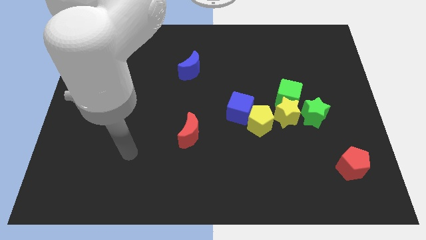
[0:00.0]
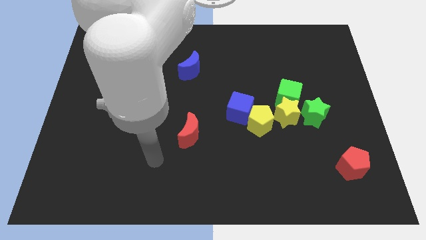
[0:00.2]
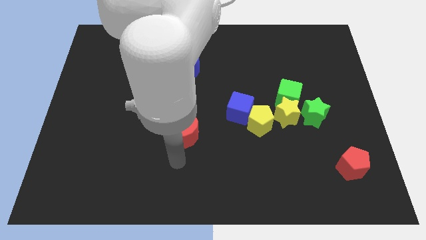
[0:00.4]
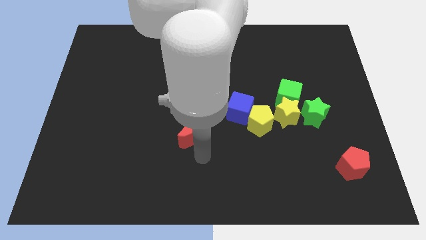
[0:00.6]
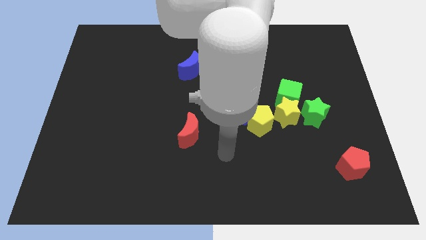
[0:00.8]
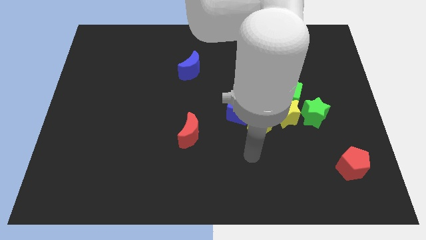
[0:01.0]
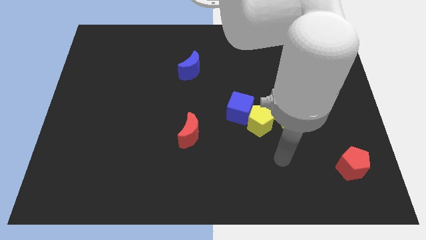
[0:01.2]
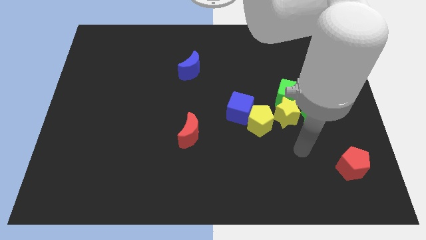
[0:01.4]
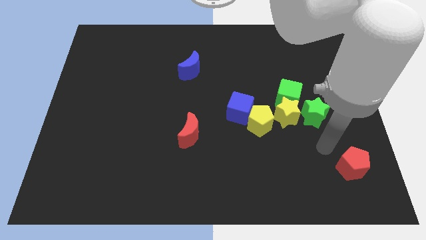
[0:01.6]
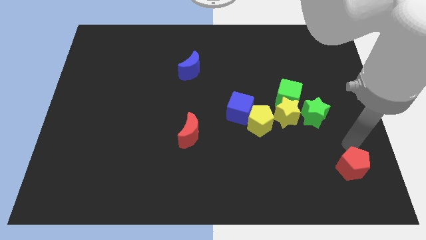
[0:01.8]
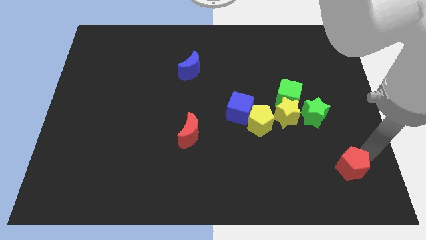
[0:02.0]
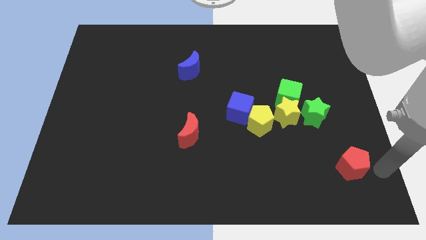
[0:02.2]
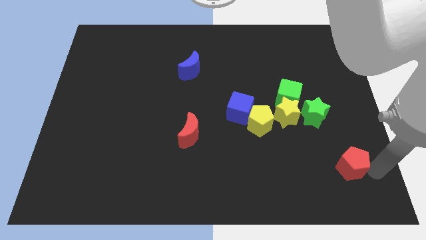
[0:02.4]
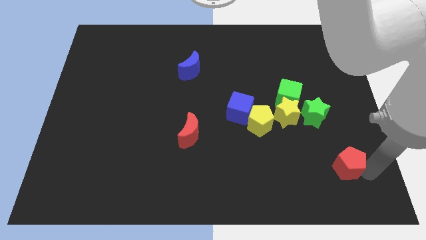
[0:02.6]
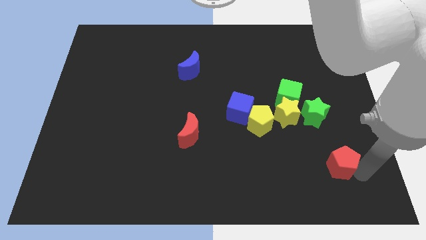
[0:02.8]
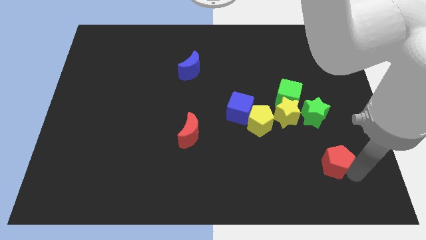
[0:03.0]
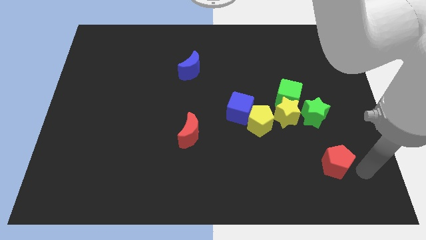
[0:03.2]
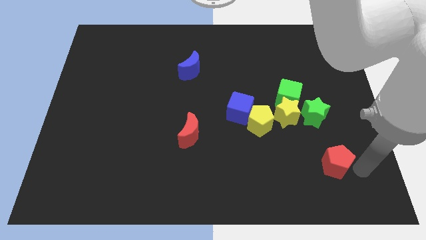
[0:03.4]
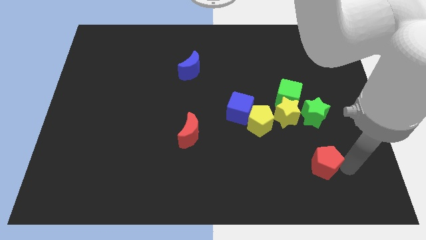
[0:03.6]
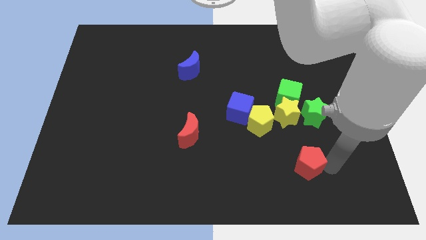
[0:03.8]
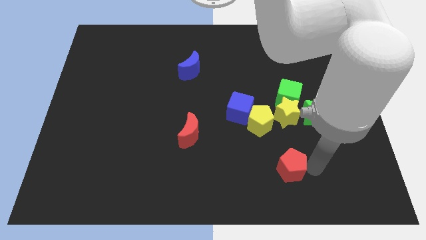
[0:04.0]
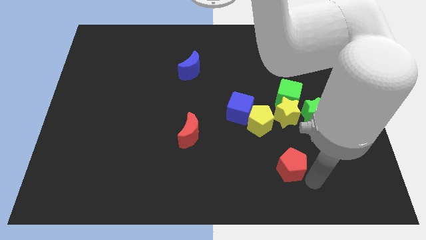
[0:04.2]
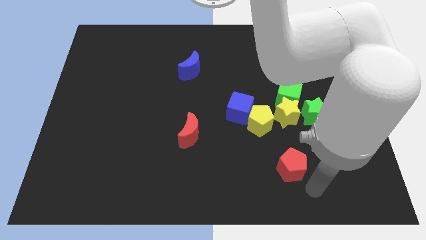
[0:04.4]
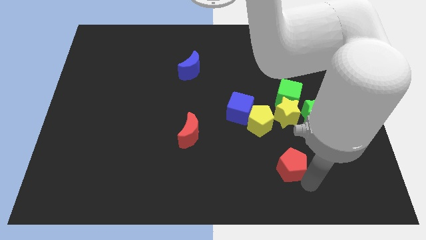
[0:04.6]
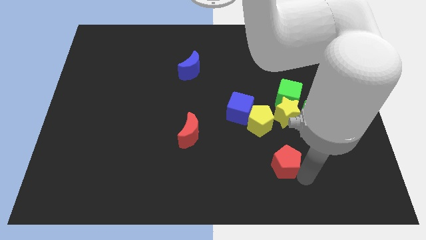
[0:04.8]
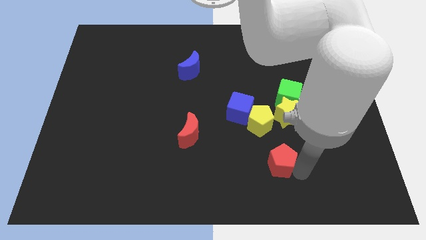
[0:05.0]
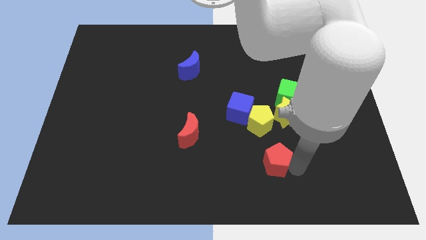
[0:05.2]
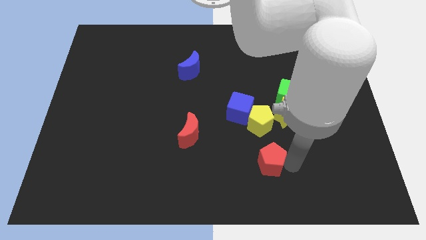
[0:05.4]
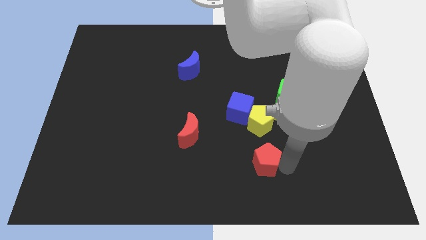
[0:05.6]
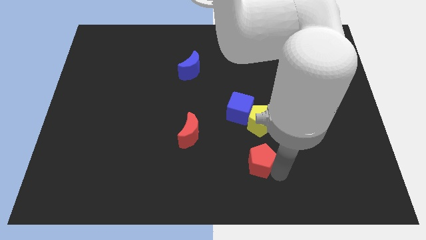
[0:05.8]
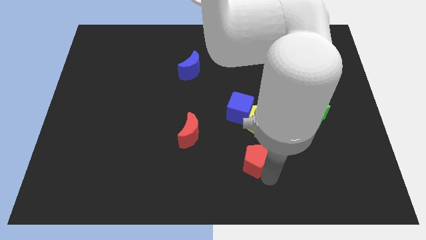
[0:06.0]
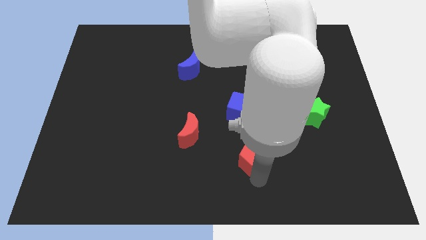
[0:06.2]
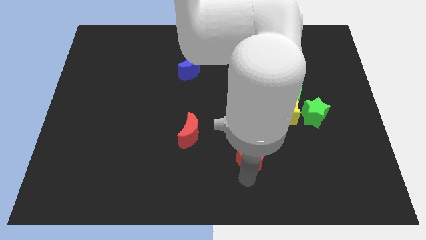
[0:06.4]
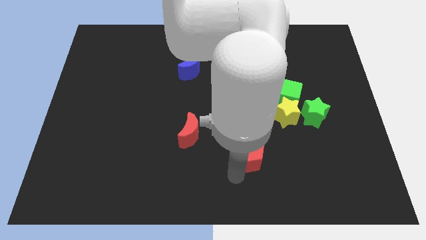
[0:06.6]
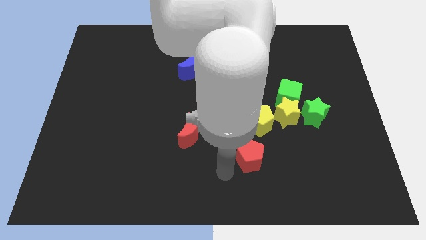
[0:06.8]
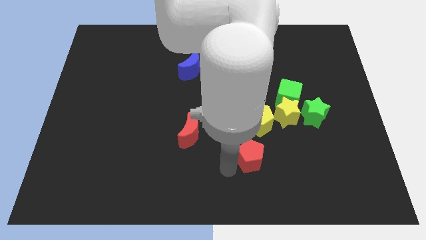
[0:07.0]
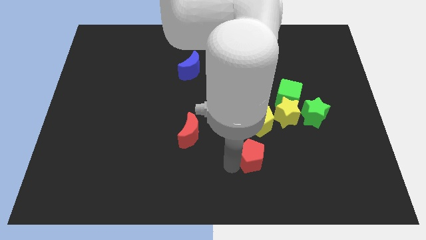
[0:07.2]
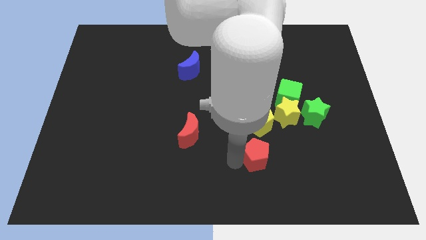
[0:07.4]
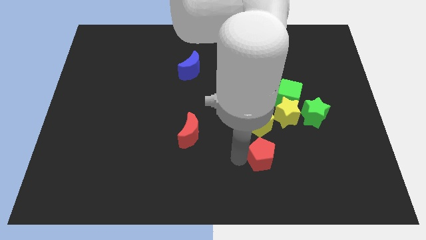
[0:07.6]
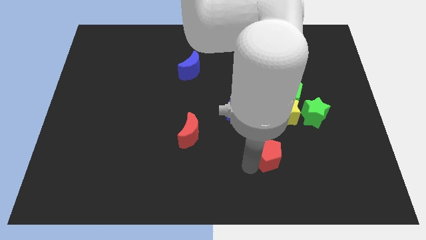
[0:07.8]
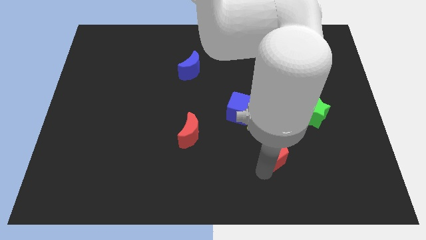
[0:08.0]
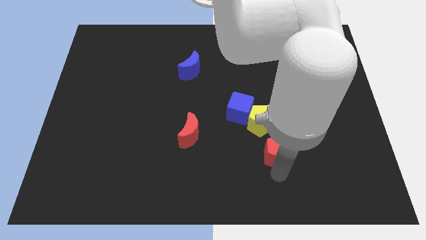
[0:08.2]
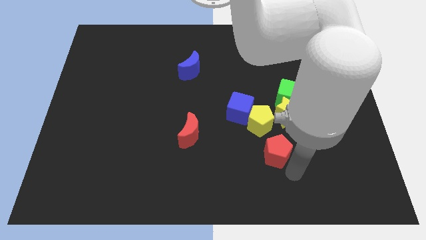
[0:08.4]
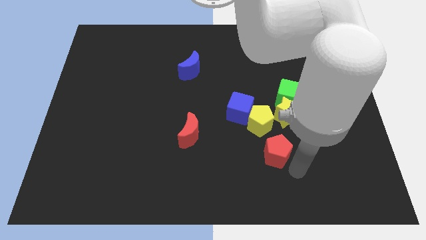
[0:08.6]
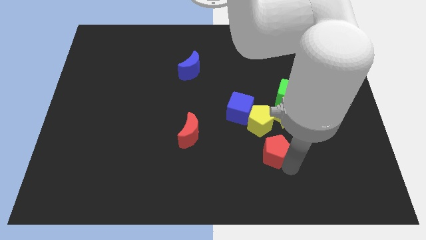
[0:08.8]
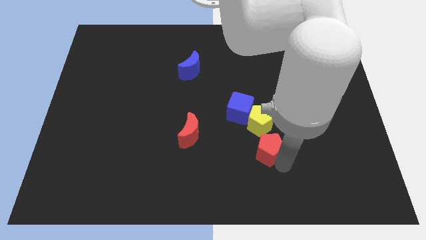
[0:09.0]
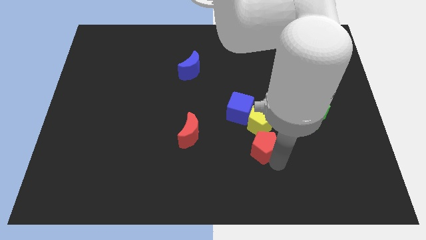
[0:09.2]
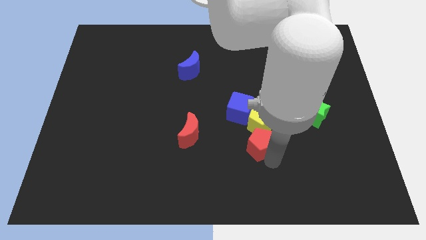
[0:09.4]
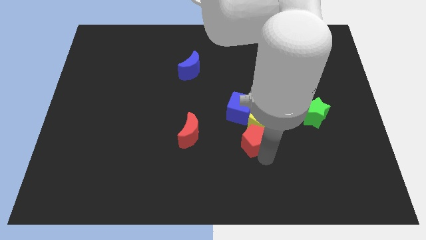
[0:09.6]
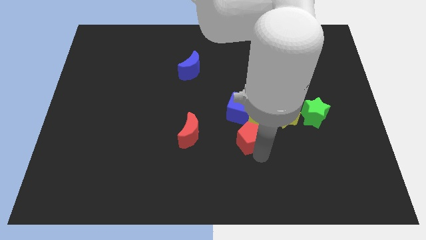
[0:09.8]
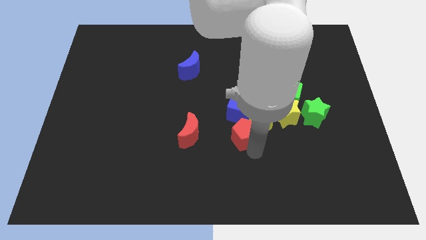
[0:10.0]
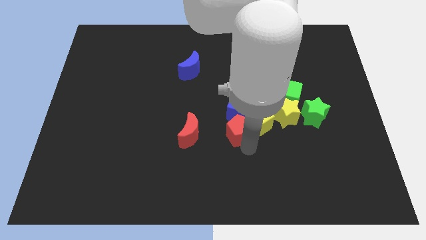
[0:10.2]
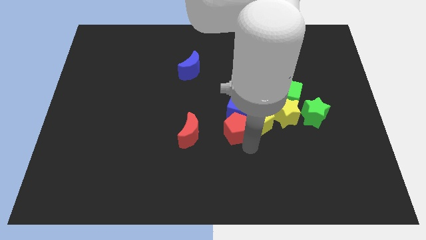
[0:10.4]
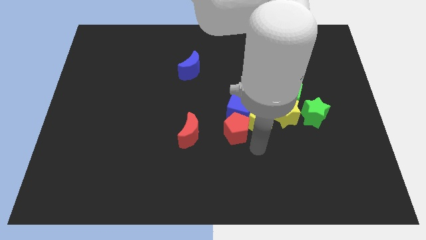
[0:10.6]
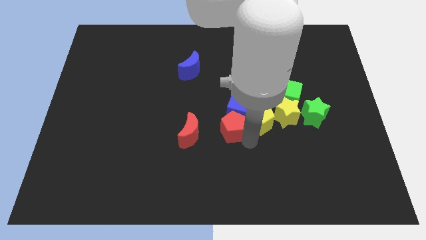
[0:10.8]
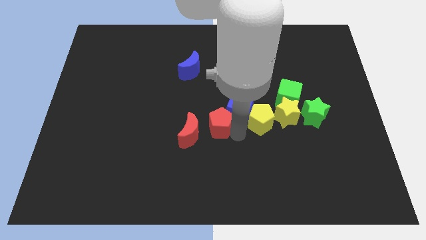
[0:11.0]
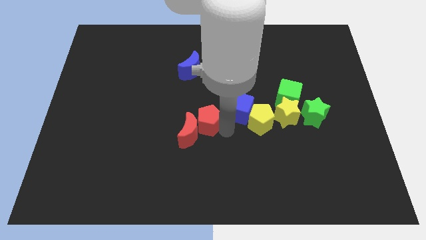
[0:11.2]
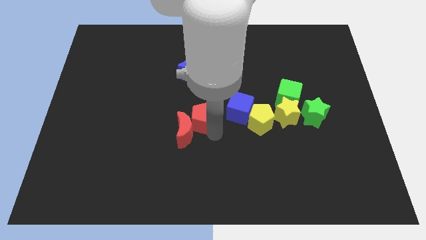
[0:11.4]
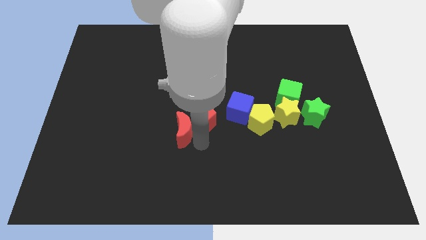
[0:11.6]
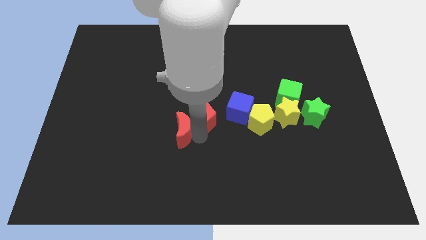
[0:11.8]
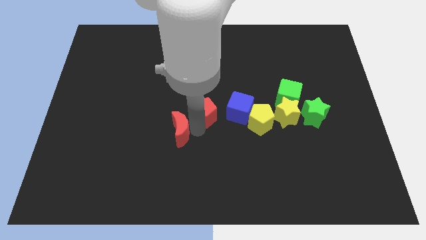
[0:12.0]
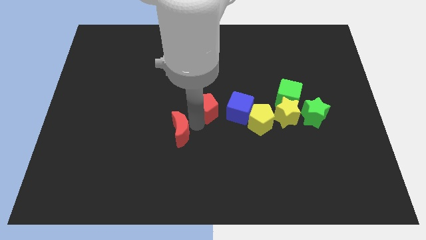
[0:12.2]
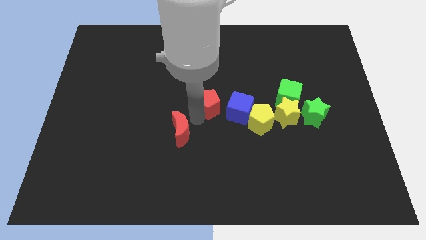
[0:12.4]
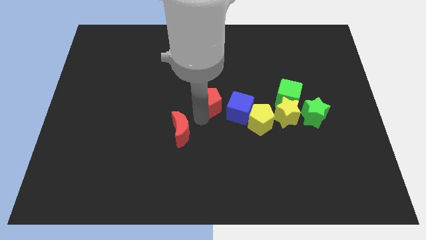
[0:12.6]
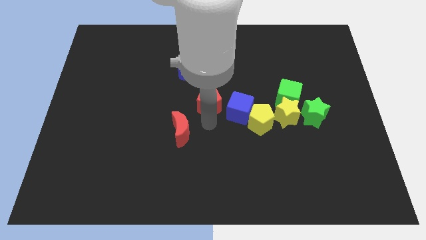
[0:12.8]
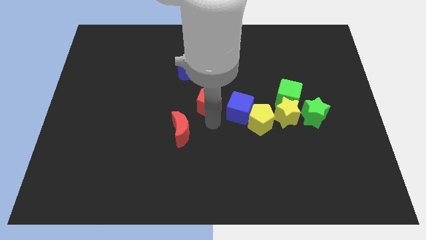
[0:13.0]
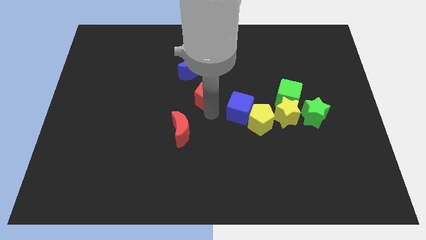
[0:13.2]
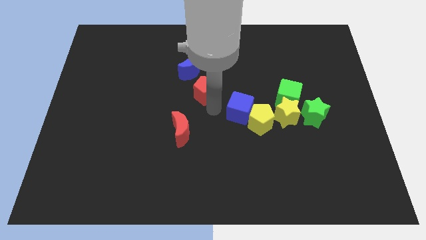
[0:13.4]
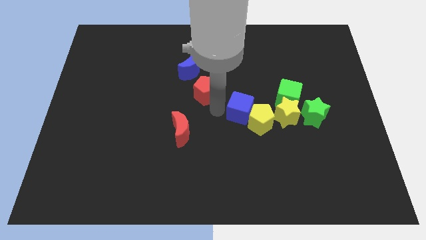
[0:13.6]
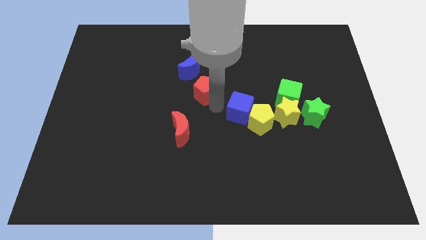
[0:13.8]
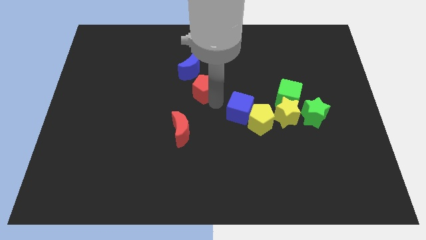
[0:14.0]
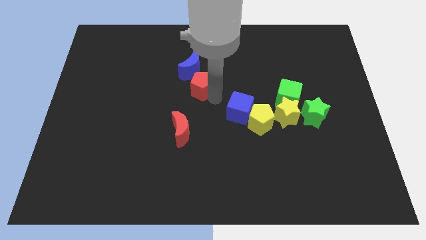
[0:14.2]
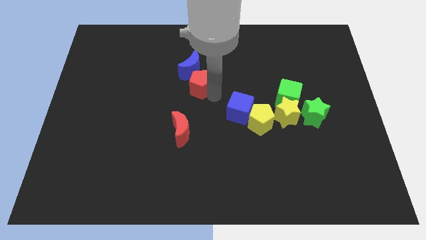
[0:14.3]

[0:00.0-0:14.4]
slide the red pentagon close to the blue moon
